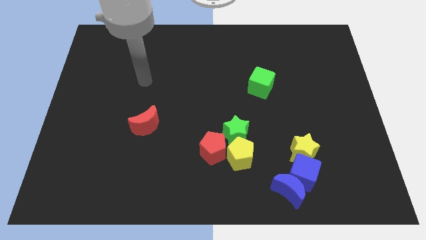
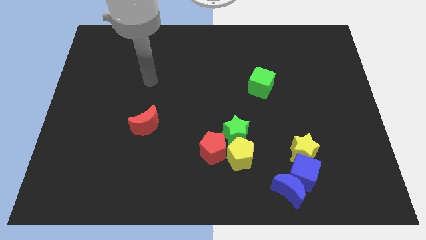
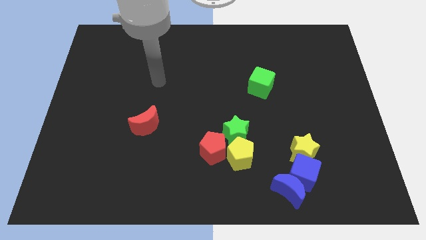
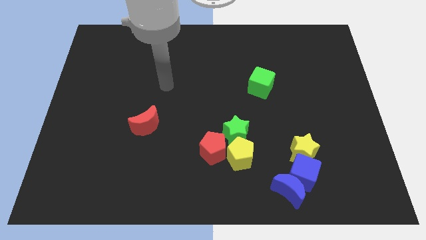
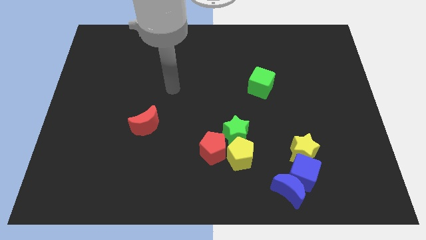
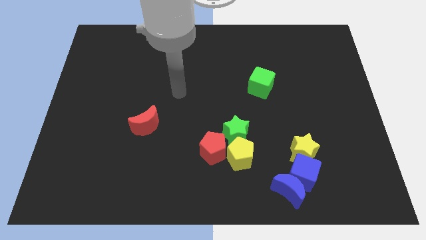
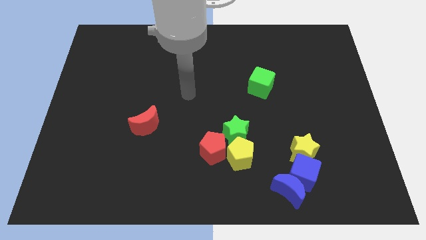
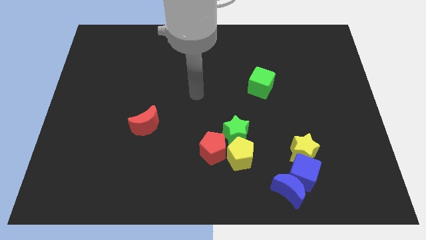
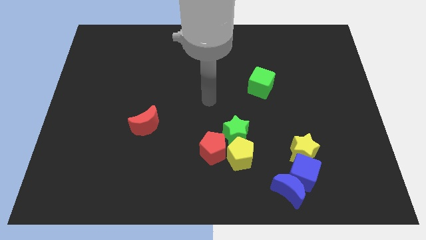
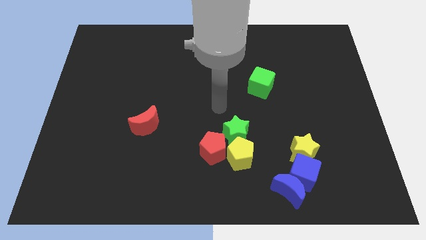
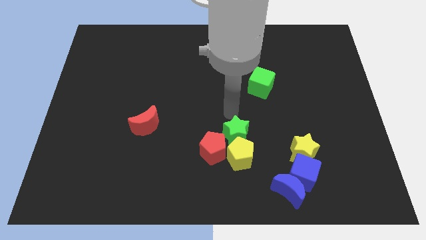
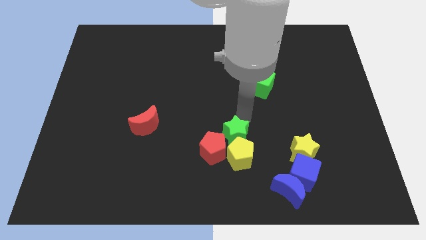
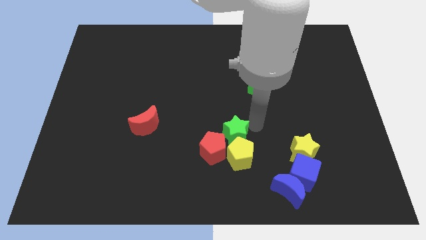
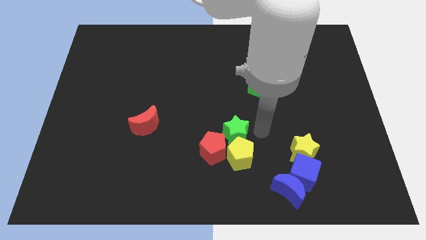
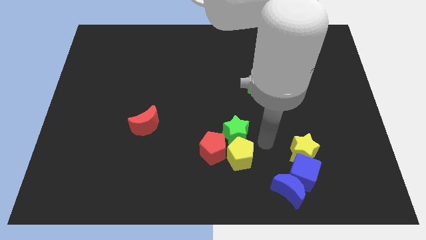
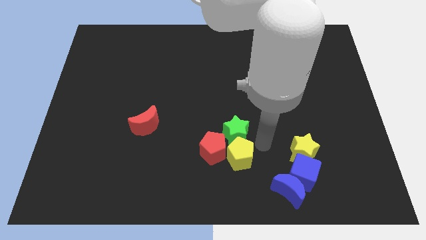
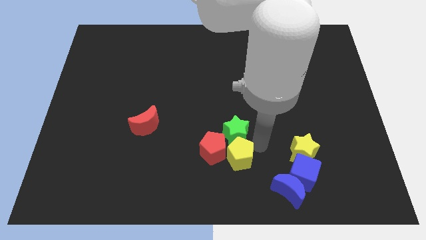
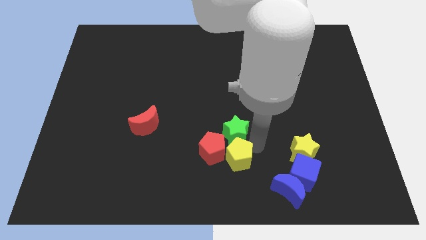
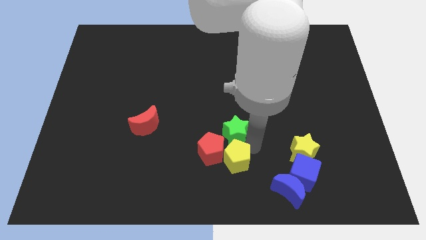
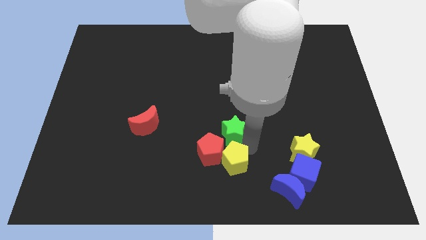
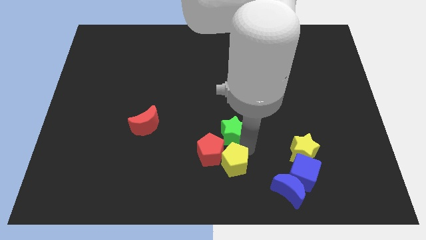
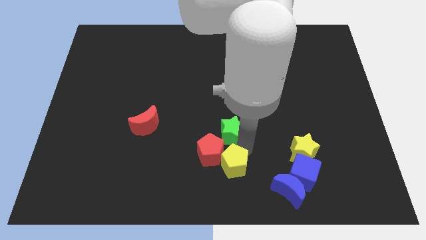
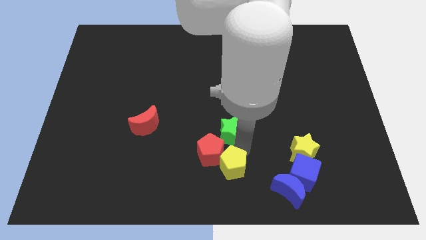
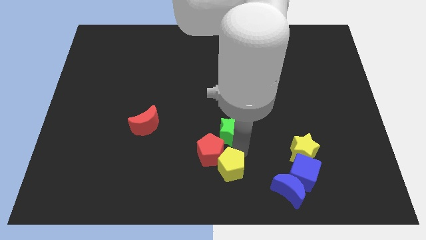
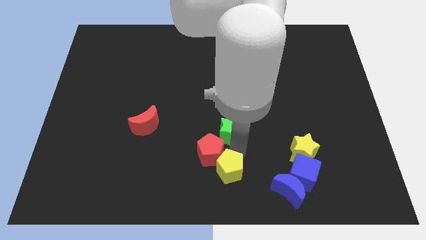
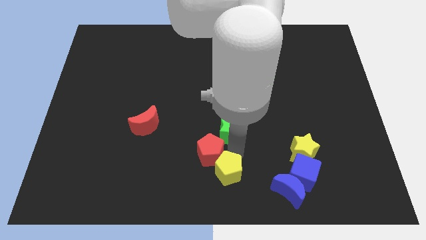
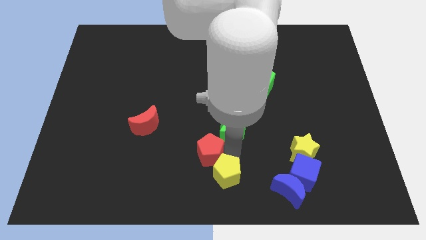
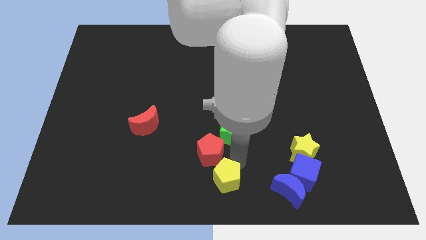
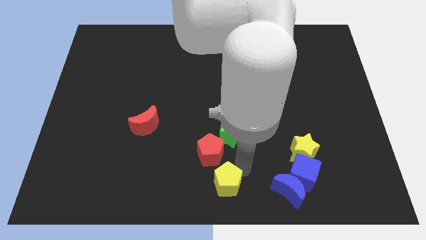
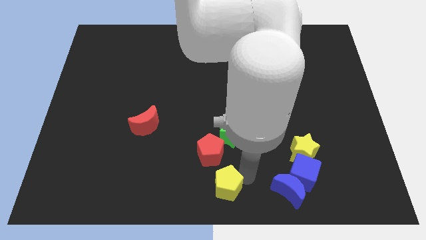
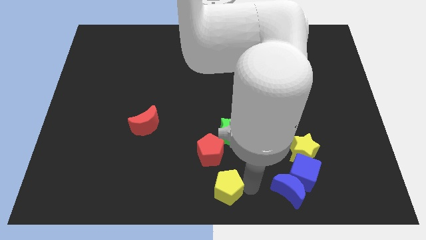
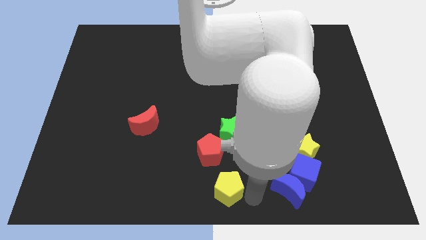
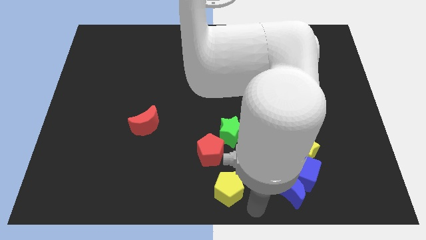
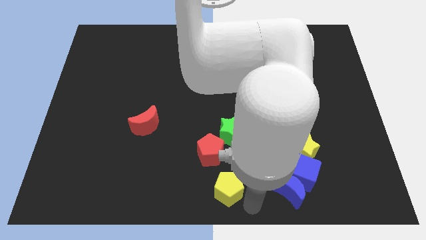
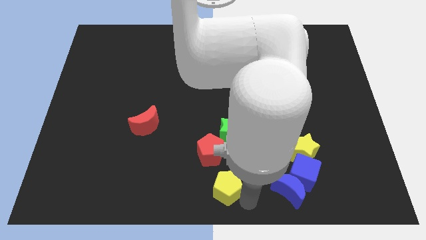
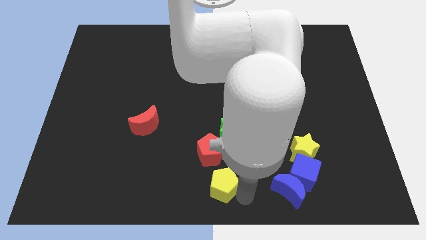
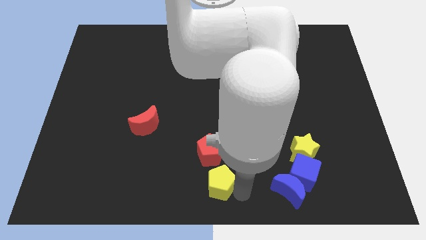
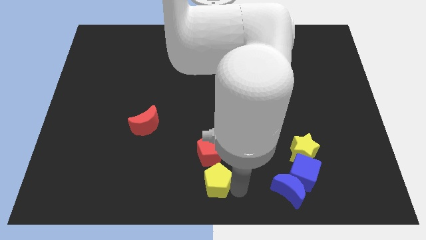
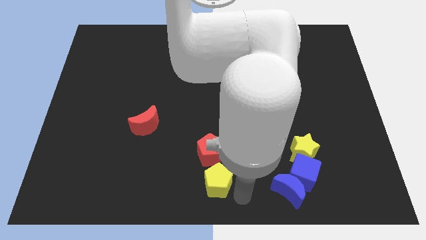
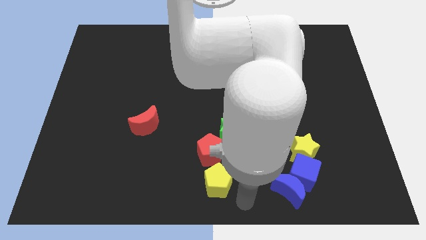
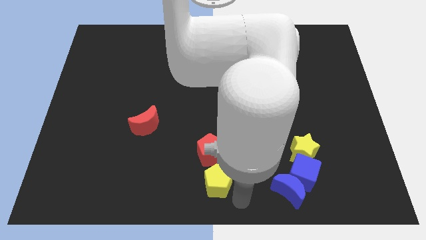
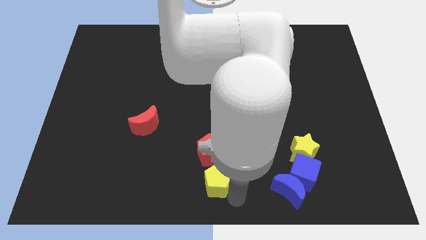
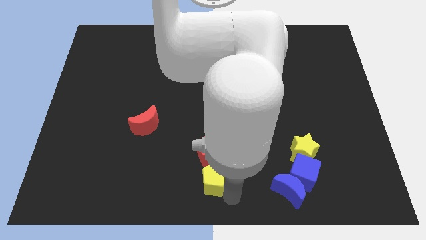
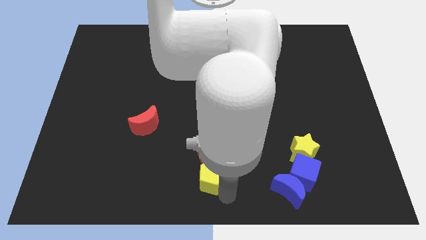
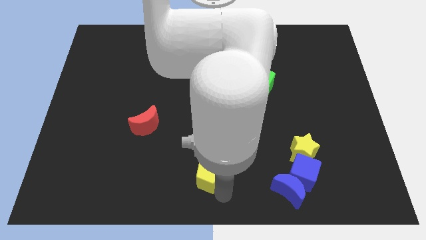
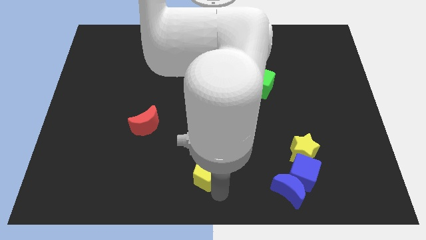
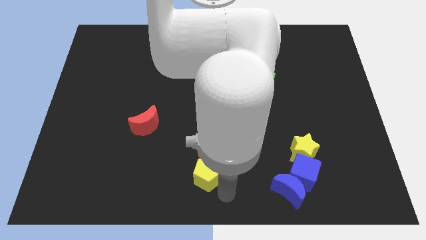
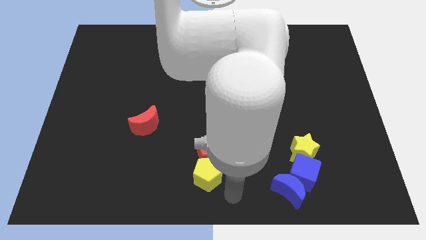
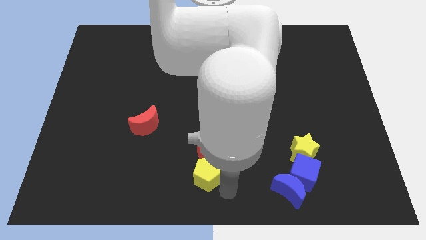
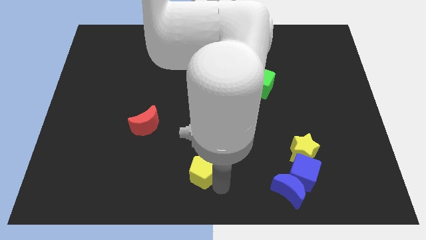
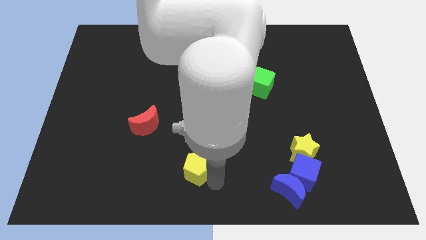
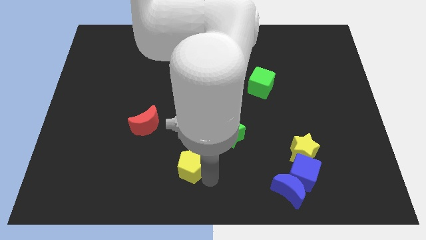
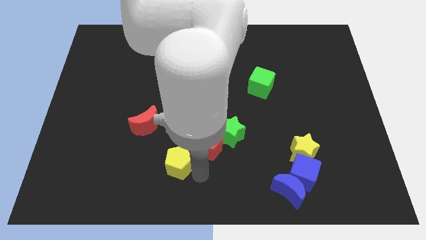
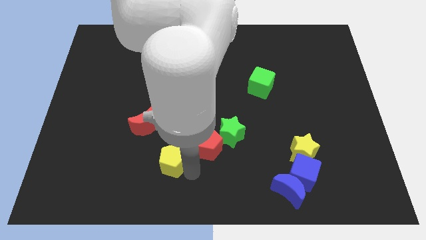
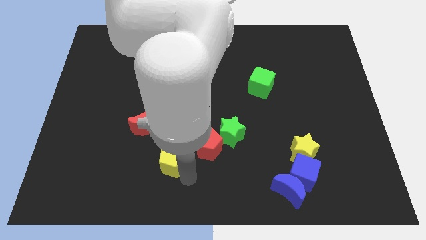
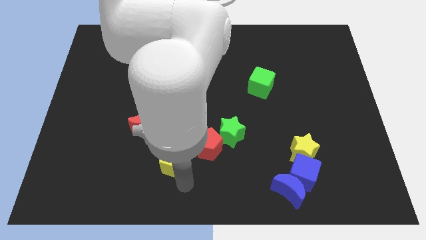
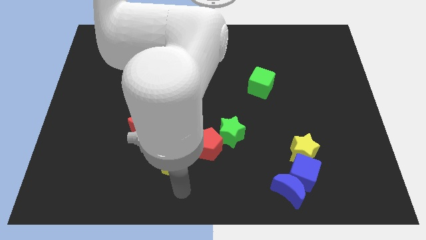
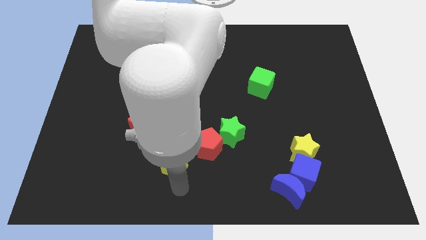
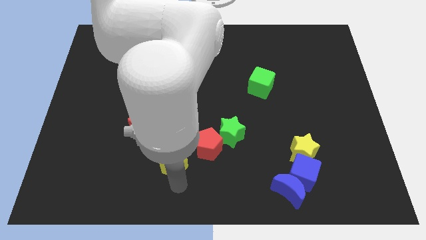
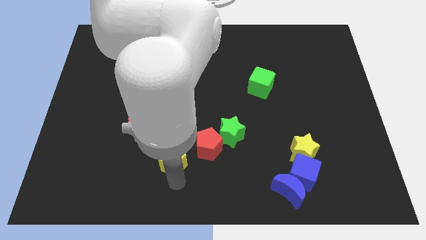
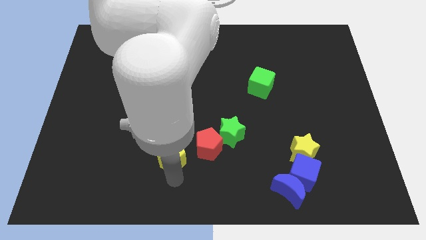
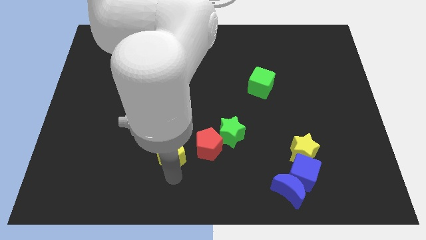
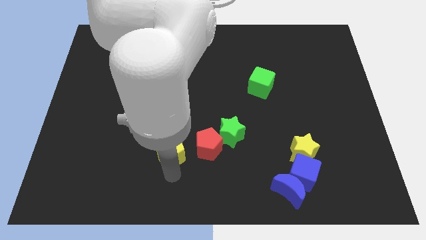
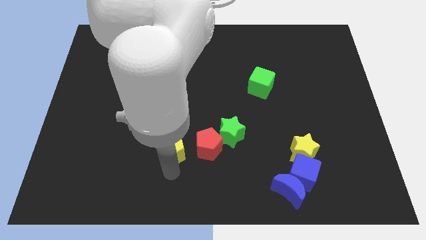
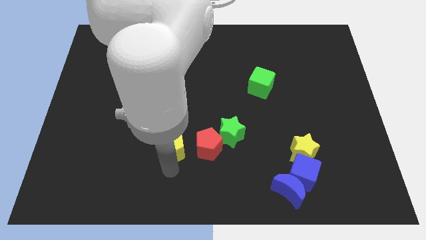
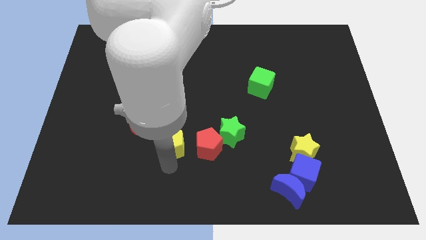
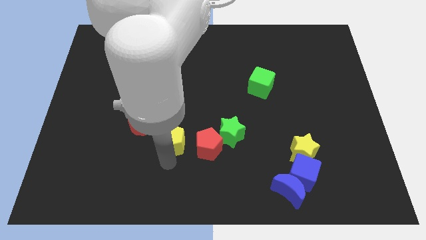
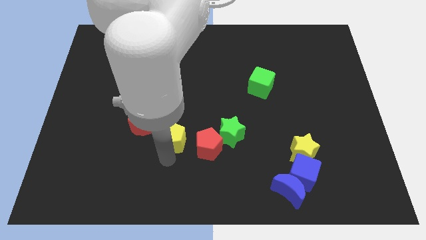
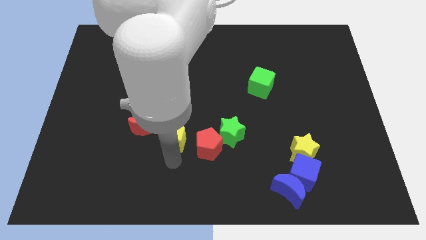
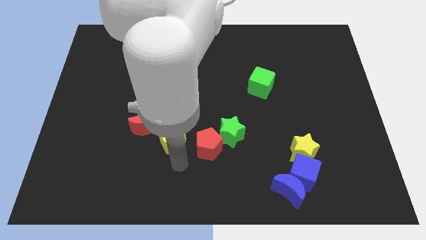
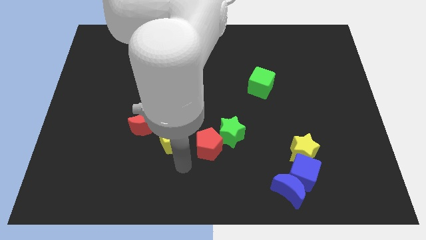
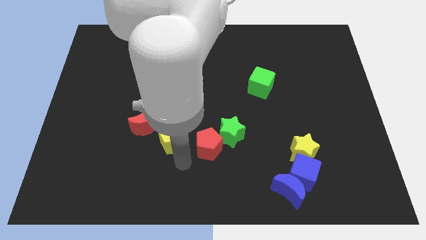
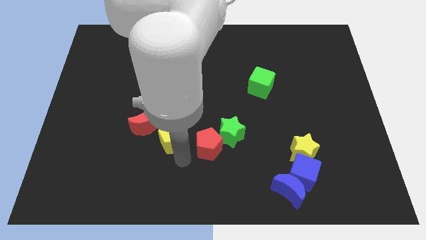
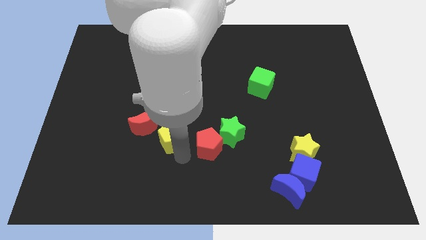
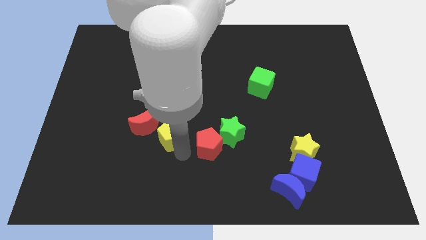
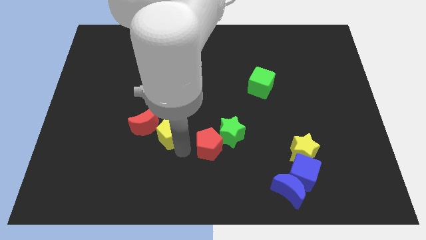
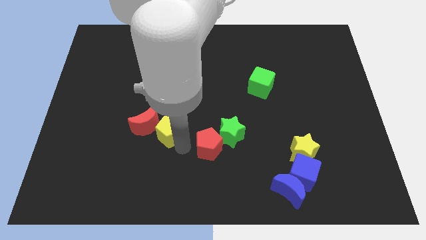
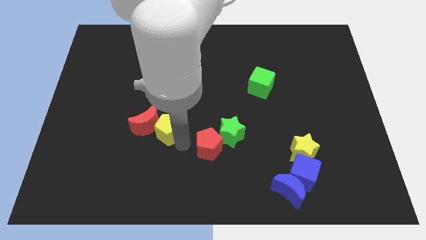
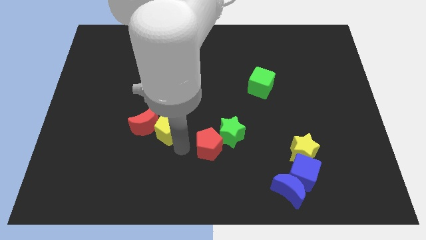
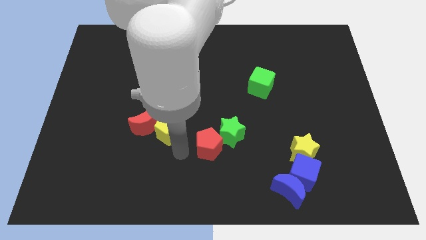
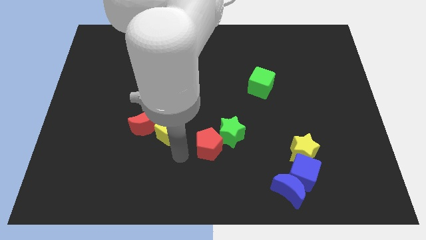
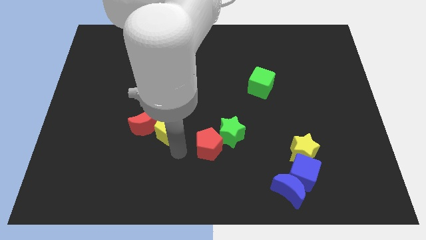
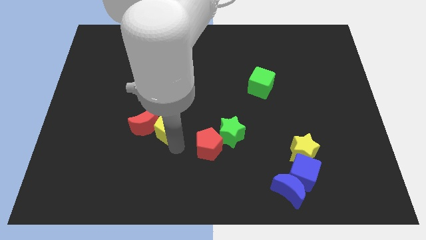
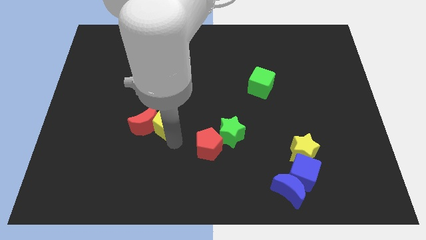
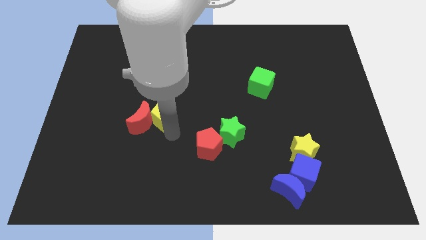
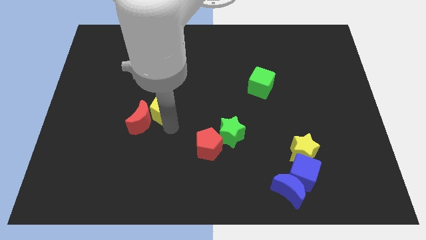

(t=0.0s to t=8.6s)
move the yellow pentagon up and then left
